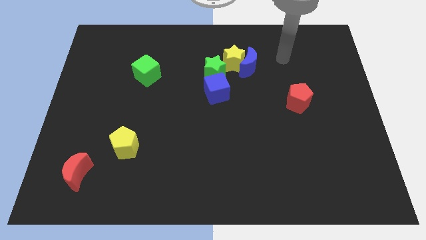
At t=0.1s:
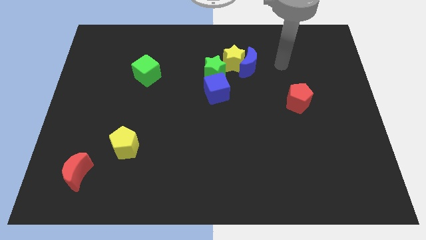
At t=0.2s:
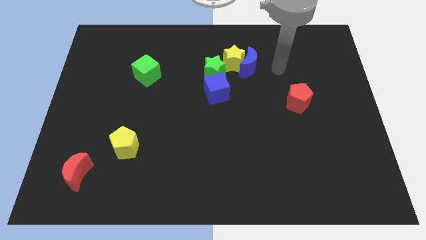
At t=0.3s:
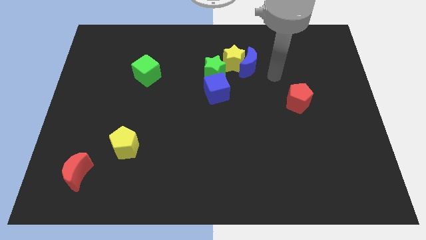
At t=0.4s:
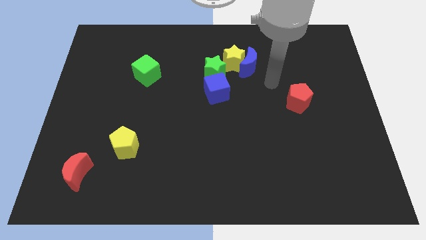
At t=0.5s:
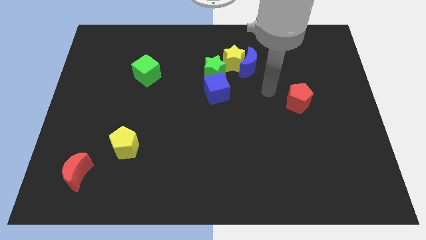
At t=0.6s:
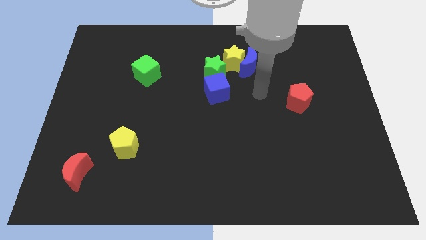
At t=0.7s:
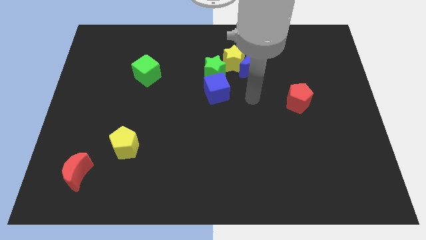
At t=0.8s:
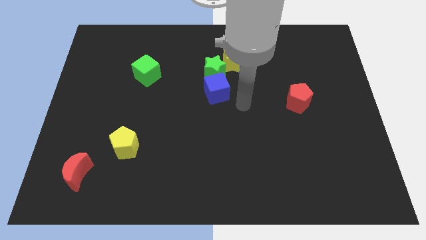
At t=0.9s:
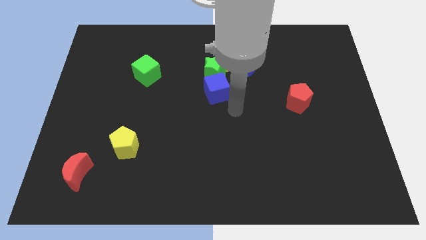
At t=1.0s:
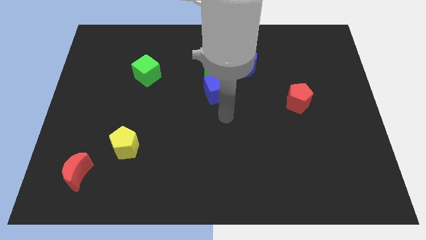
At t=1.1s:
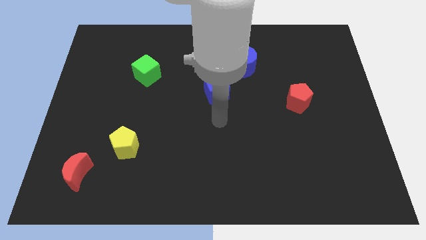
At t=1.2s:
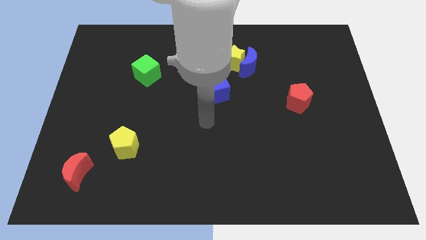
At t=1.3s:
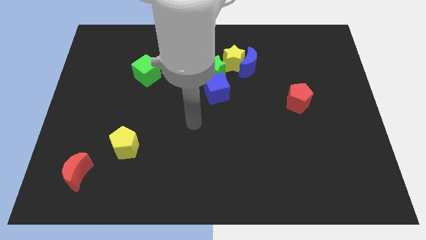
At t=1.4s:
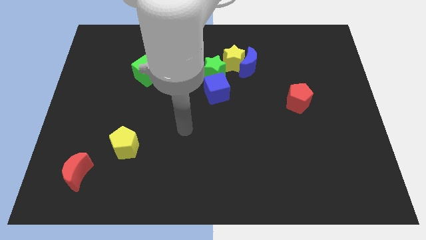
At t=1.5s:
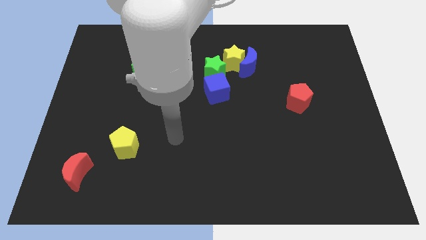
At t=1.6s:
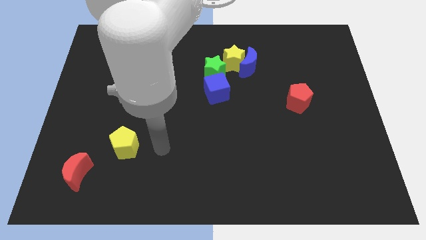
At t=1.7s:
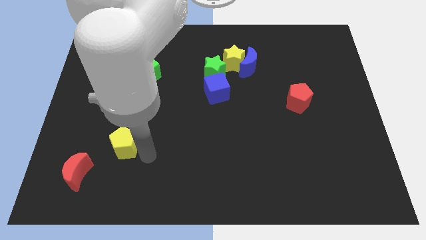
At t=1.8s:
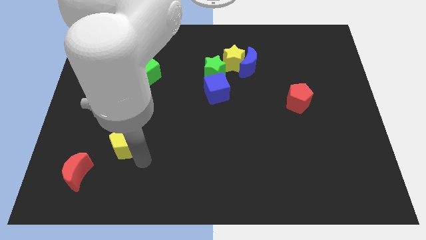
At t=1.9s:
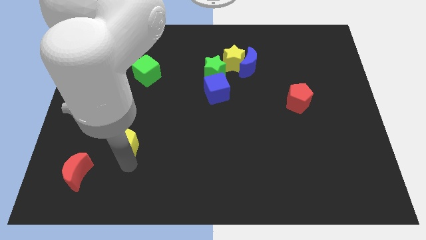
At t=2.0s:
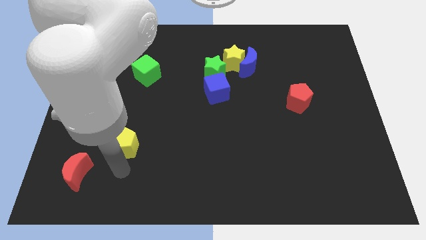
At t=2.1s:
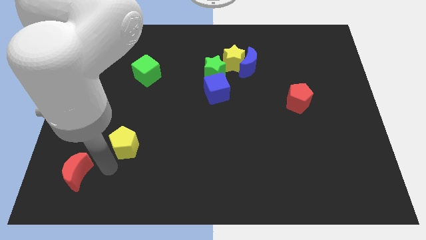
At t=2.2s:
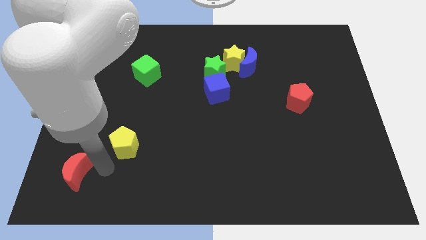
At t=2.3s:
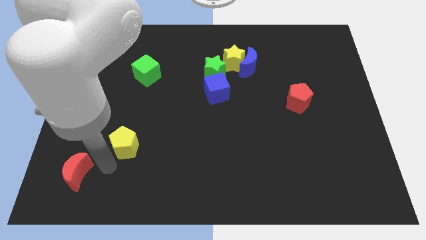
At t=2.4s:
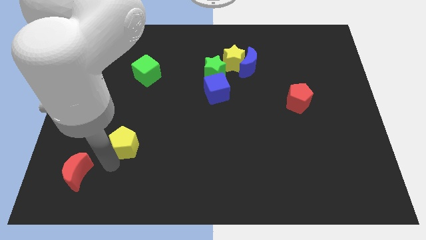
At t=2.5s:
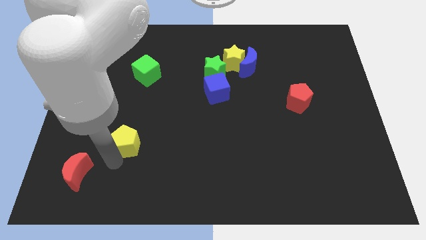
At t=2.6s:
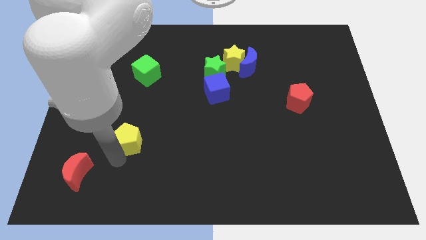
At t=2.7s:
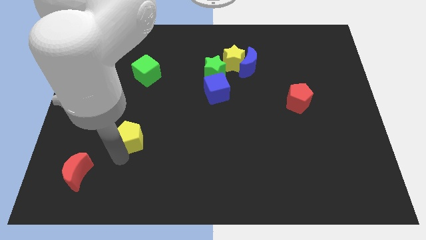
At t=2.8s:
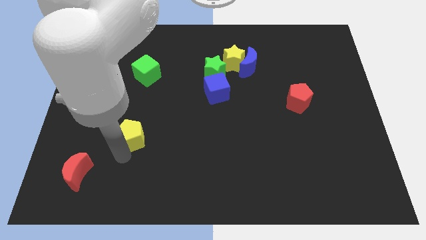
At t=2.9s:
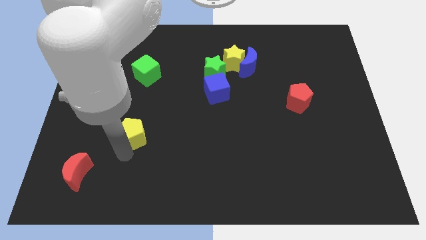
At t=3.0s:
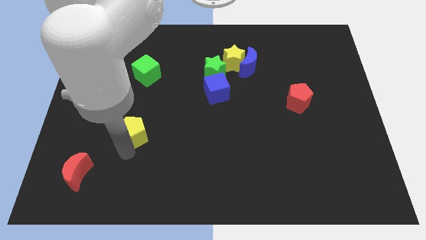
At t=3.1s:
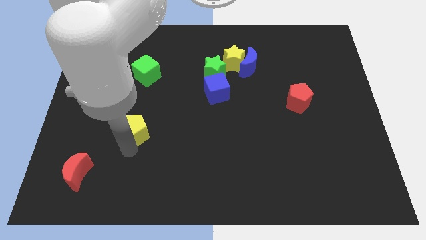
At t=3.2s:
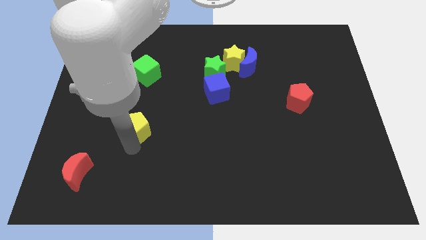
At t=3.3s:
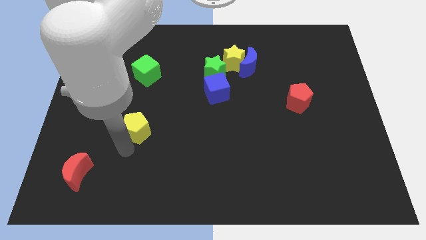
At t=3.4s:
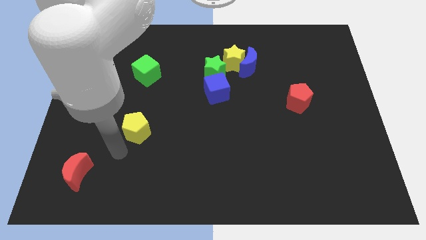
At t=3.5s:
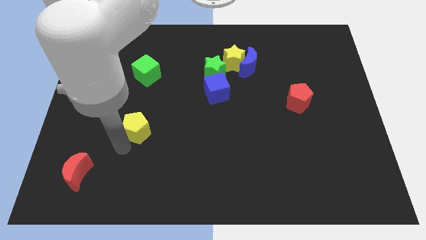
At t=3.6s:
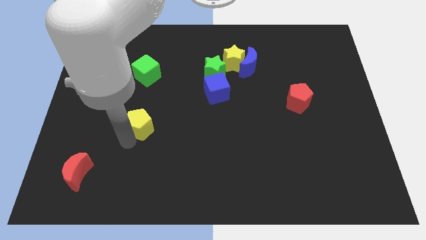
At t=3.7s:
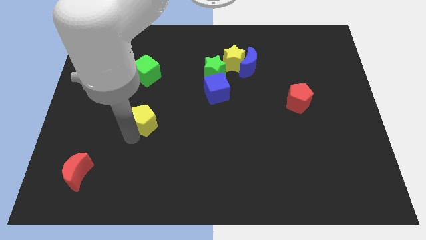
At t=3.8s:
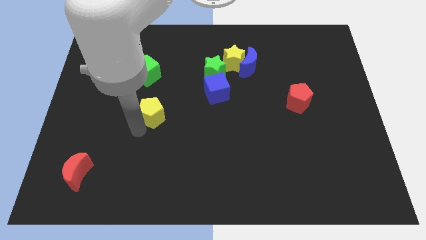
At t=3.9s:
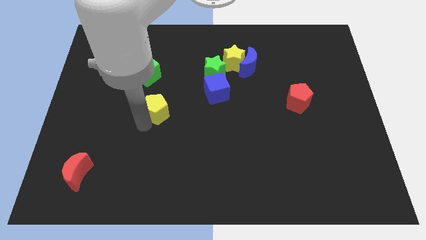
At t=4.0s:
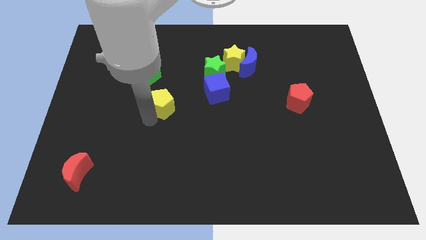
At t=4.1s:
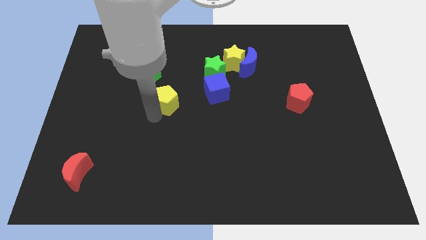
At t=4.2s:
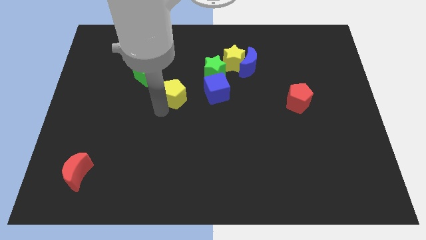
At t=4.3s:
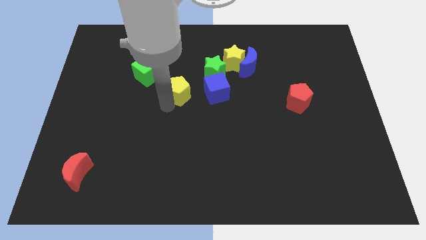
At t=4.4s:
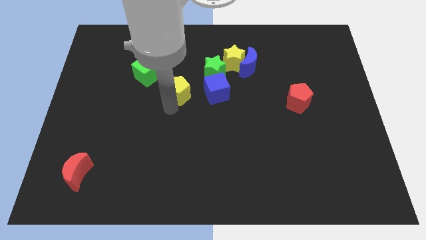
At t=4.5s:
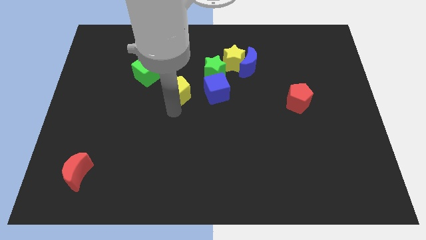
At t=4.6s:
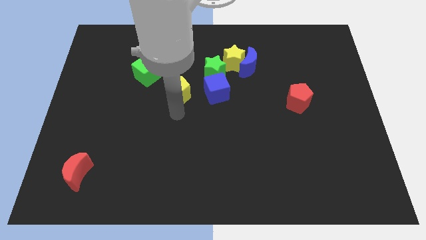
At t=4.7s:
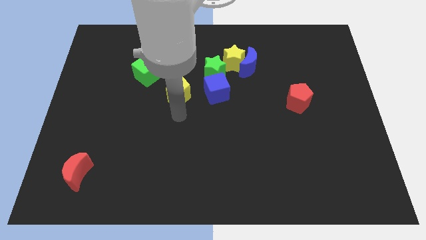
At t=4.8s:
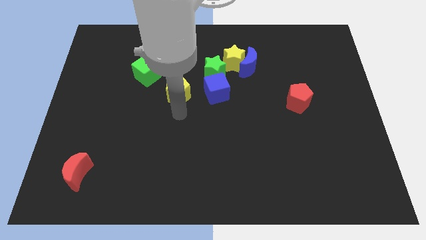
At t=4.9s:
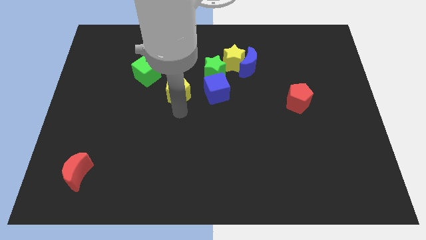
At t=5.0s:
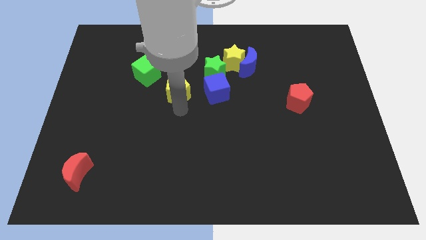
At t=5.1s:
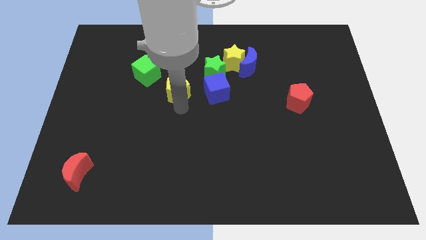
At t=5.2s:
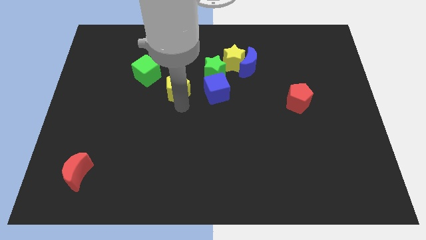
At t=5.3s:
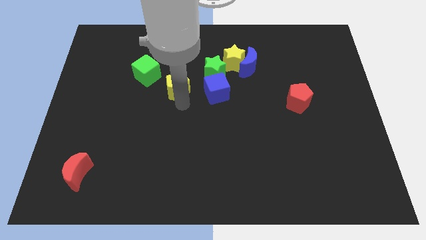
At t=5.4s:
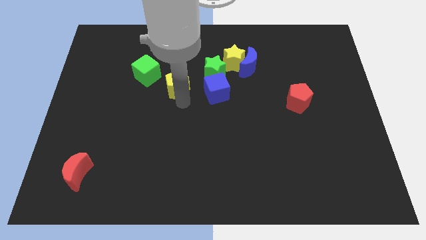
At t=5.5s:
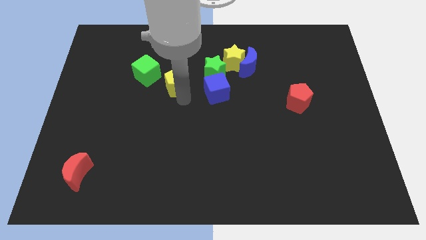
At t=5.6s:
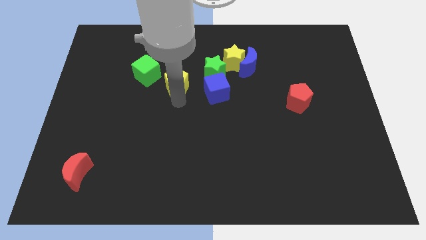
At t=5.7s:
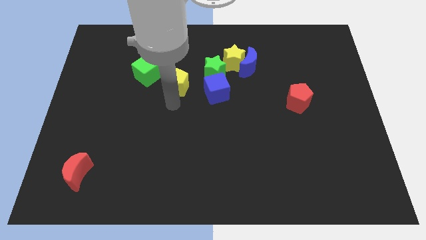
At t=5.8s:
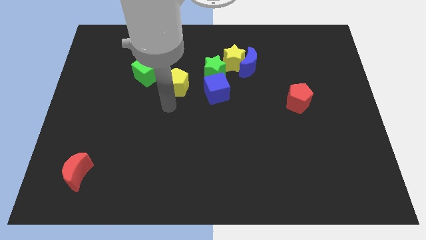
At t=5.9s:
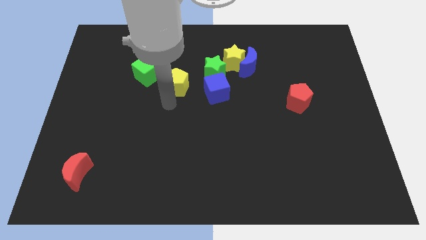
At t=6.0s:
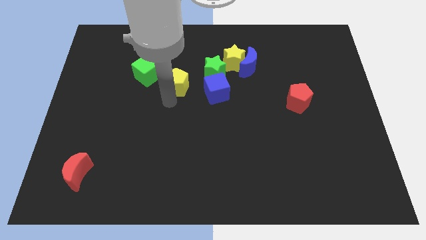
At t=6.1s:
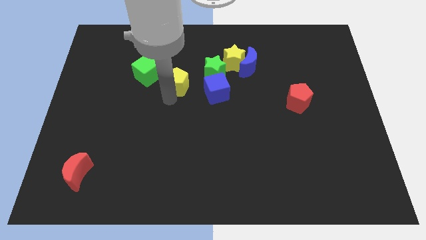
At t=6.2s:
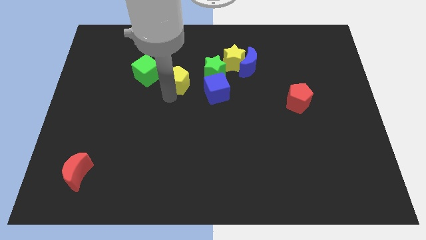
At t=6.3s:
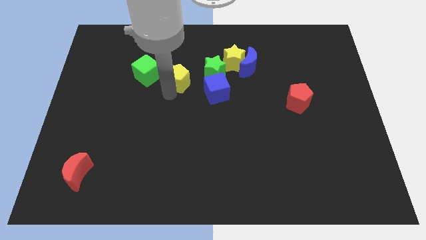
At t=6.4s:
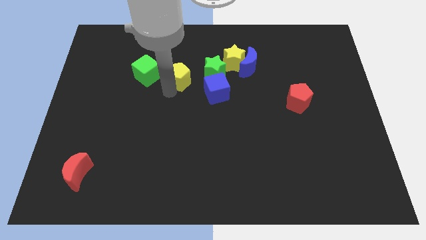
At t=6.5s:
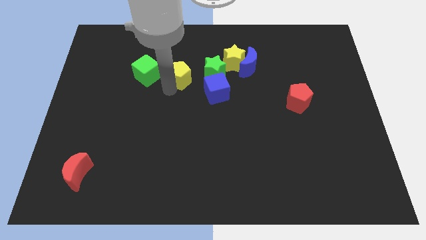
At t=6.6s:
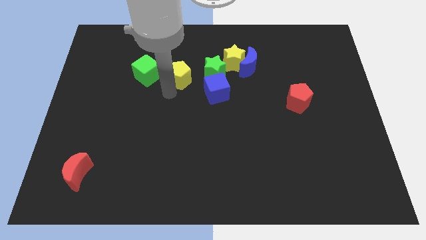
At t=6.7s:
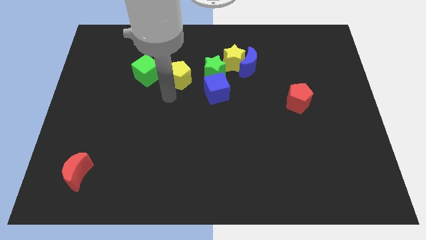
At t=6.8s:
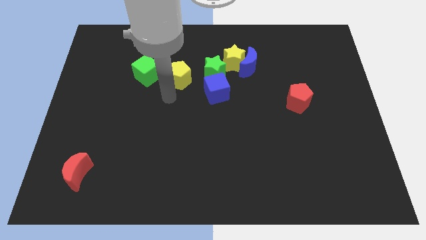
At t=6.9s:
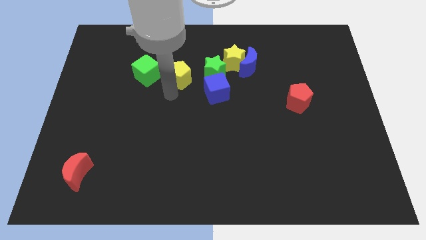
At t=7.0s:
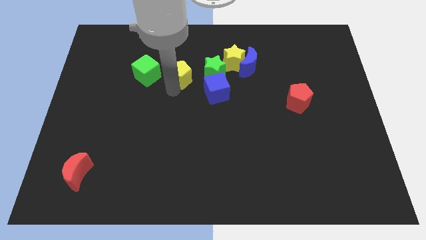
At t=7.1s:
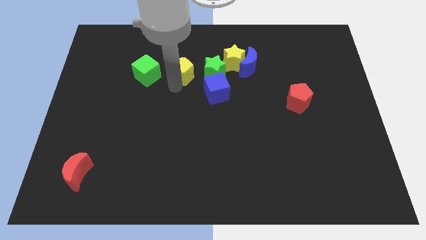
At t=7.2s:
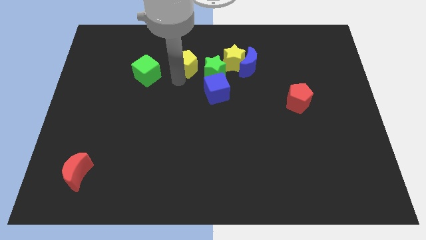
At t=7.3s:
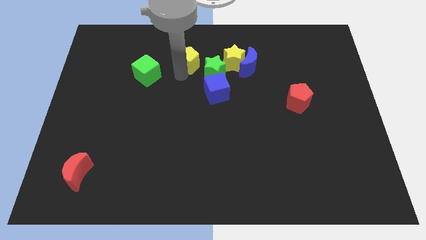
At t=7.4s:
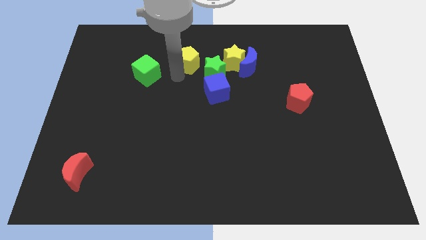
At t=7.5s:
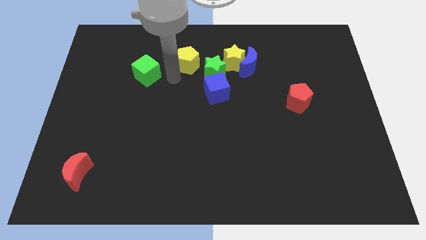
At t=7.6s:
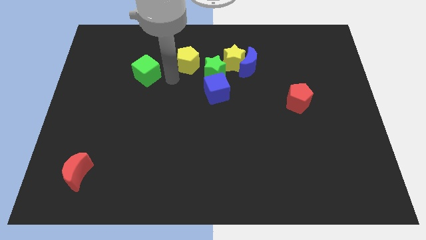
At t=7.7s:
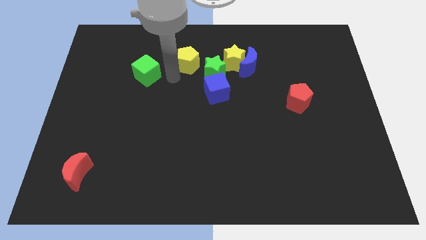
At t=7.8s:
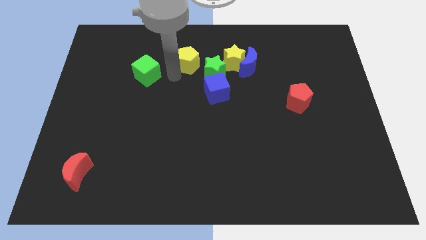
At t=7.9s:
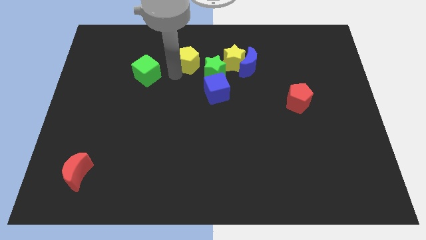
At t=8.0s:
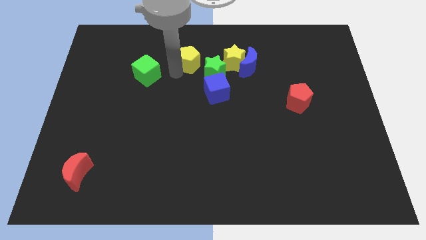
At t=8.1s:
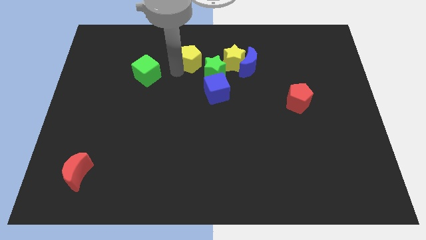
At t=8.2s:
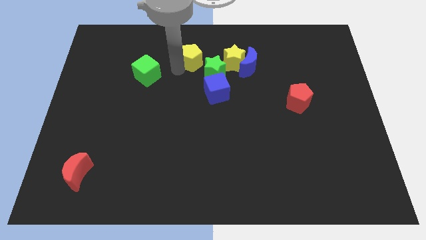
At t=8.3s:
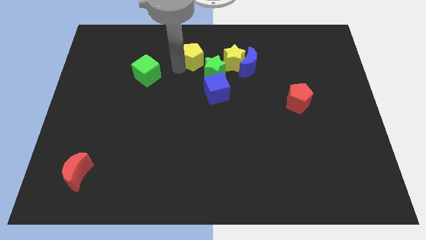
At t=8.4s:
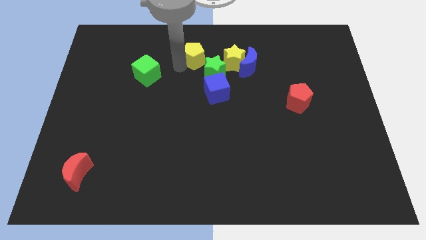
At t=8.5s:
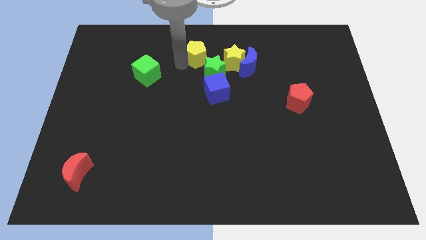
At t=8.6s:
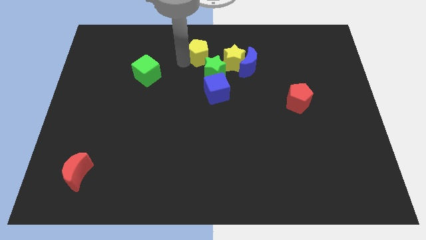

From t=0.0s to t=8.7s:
put the yellow pentagon to the top
